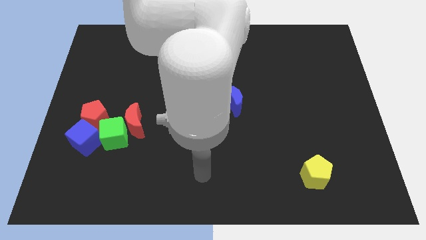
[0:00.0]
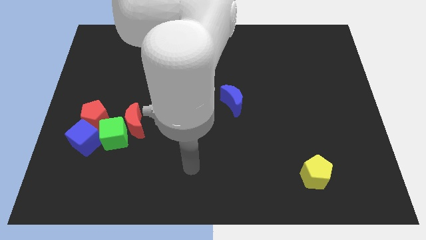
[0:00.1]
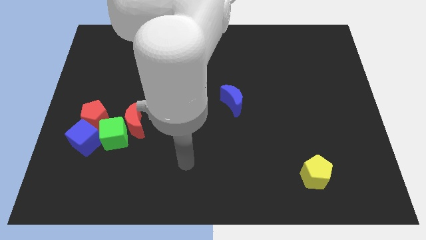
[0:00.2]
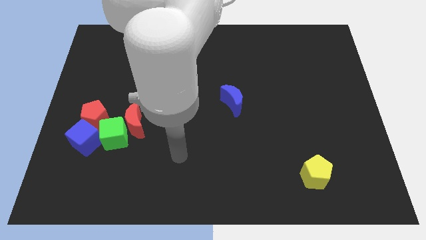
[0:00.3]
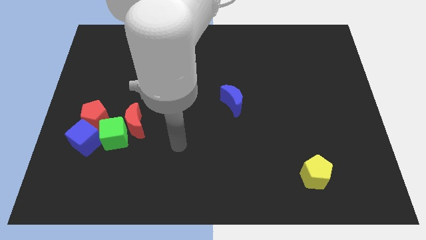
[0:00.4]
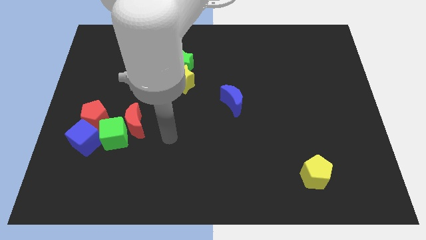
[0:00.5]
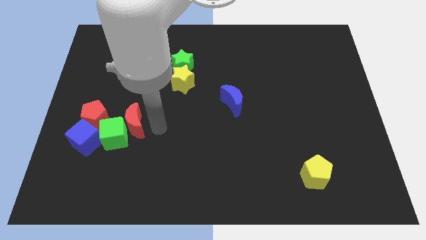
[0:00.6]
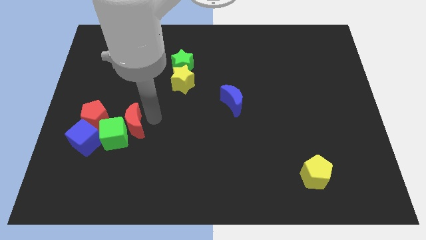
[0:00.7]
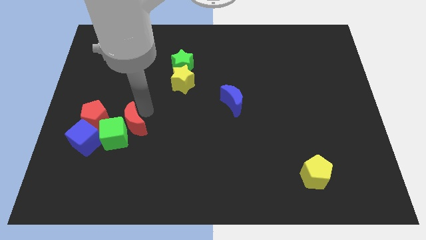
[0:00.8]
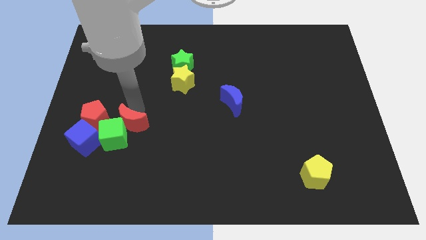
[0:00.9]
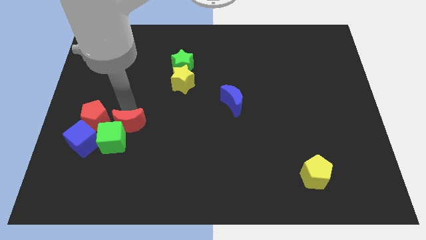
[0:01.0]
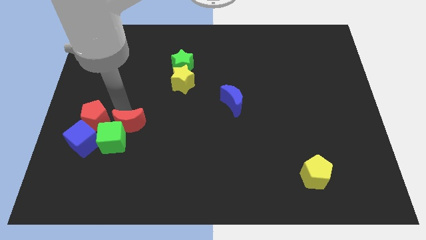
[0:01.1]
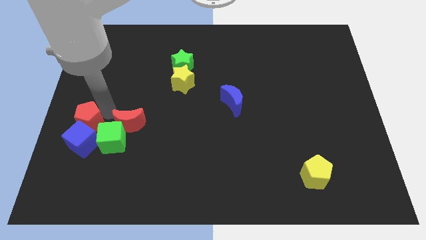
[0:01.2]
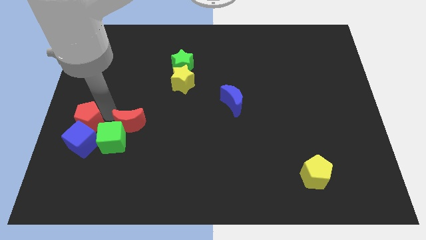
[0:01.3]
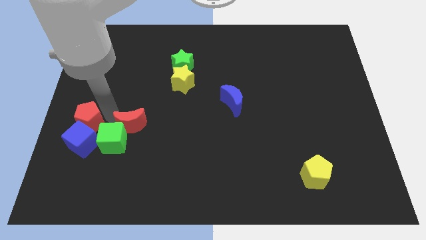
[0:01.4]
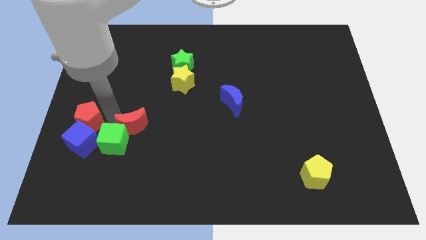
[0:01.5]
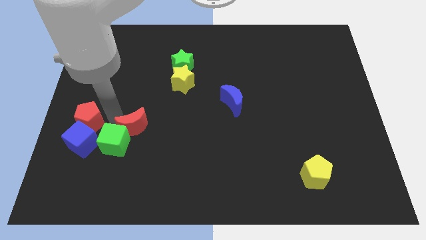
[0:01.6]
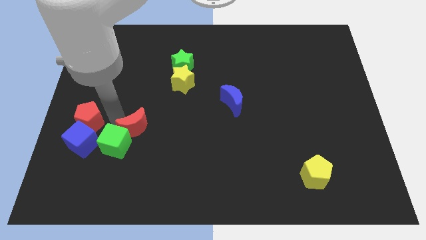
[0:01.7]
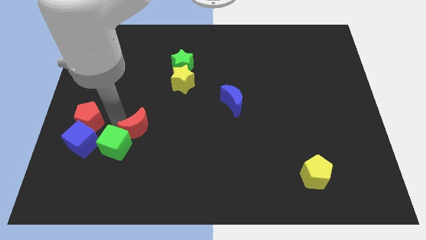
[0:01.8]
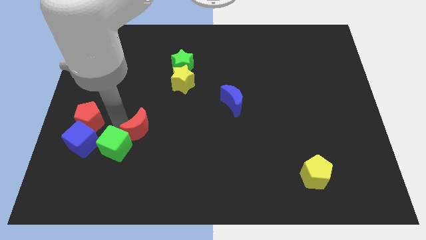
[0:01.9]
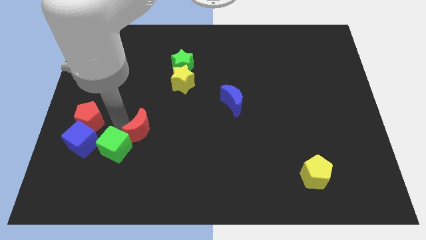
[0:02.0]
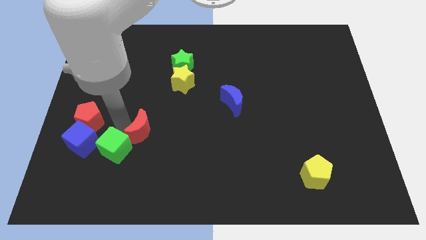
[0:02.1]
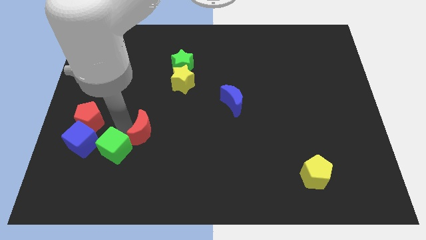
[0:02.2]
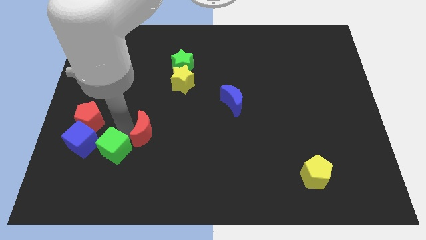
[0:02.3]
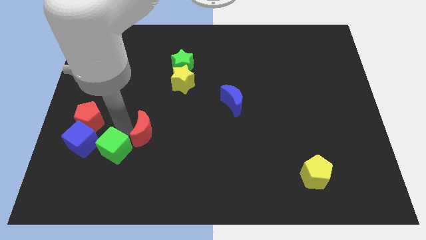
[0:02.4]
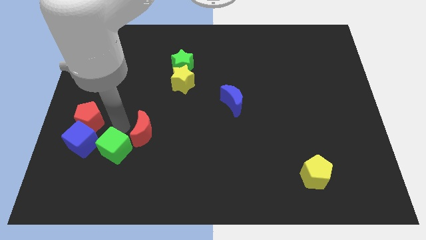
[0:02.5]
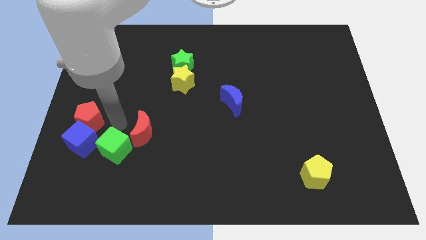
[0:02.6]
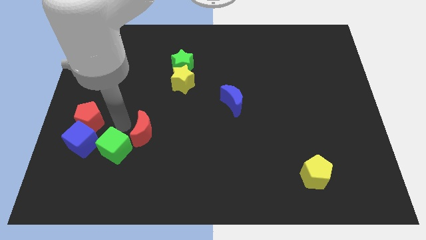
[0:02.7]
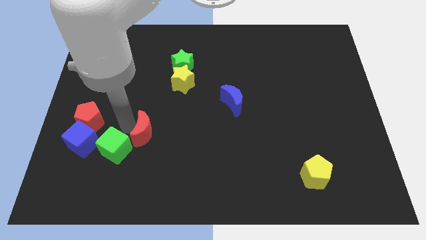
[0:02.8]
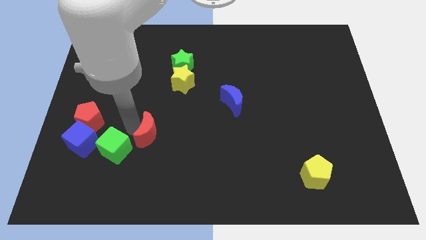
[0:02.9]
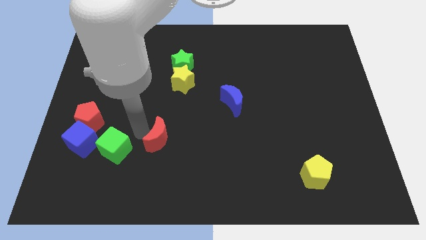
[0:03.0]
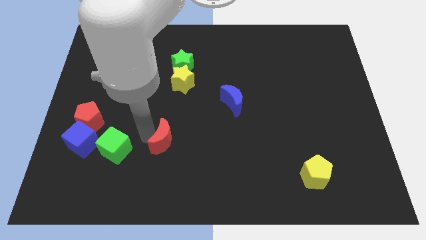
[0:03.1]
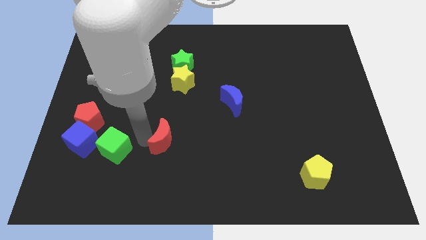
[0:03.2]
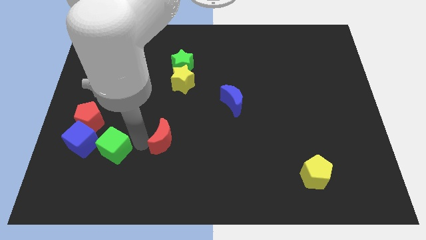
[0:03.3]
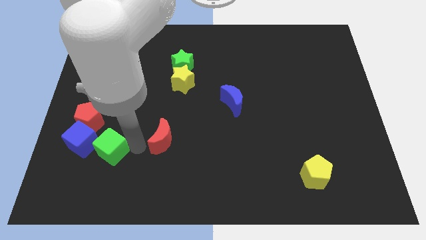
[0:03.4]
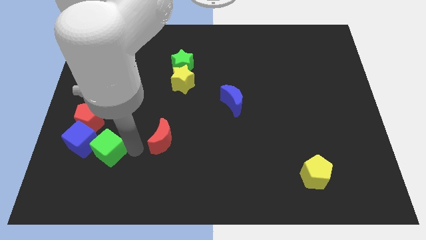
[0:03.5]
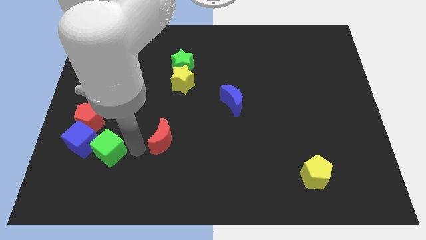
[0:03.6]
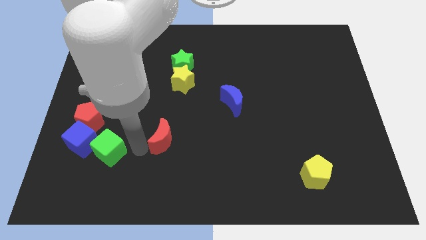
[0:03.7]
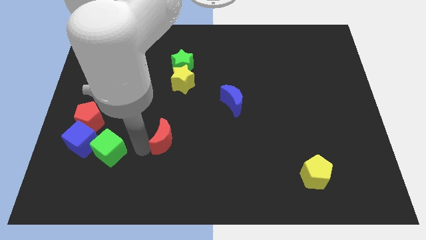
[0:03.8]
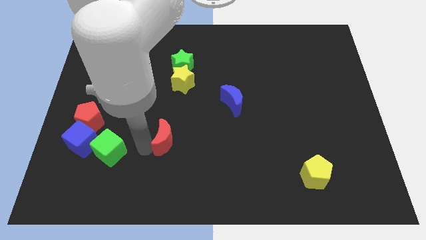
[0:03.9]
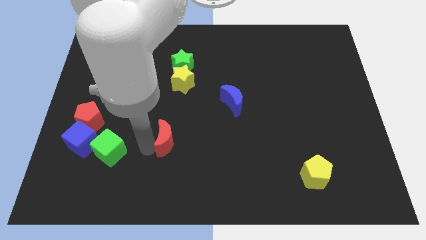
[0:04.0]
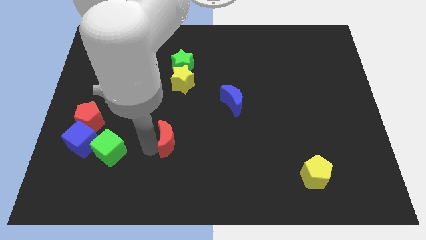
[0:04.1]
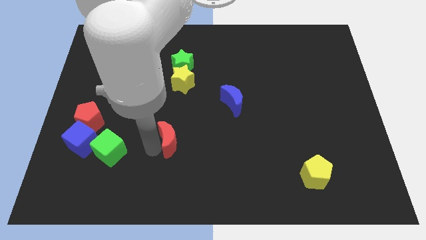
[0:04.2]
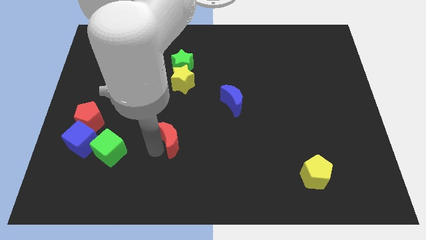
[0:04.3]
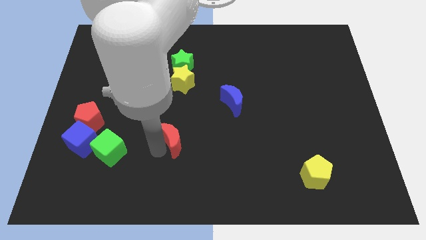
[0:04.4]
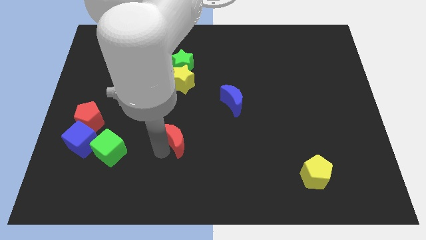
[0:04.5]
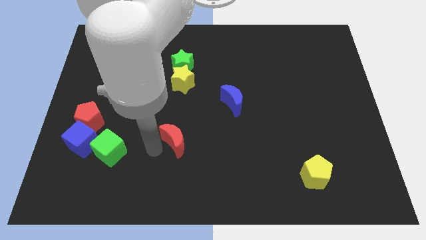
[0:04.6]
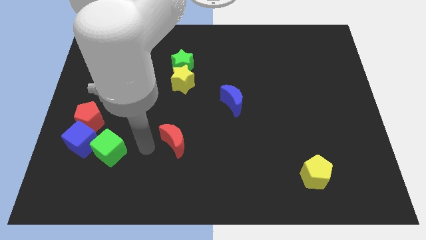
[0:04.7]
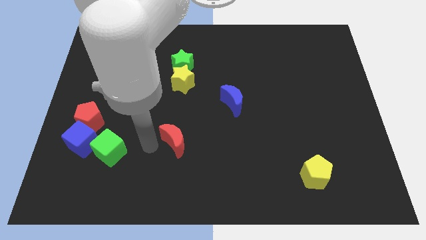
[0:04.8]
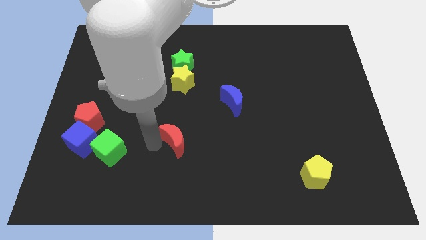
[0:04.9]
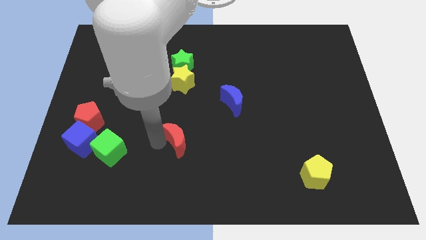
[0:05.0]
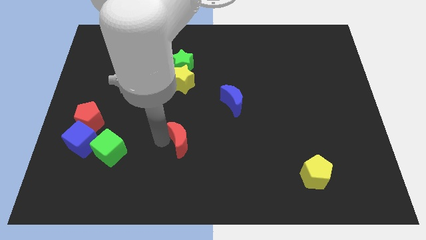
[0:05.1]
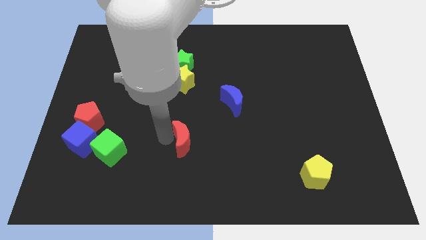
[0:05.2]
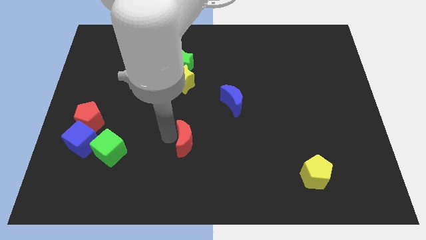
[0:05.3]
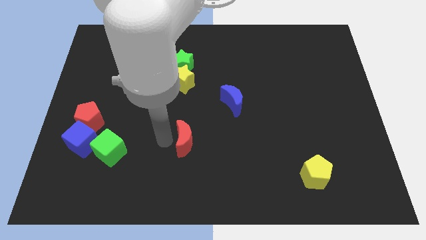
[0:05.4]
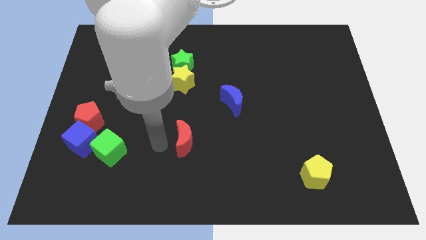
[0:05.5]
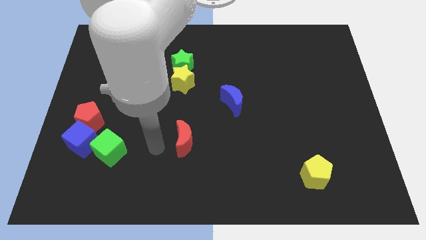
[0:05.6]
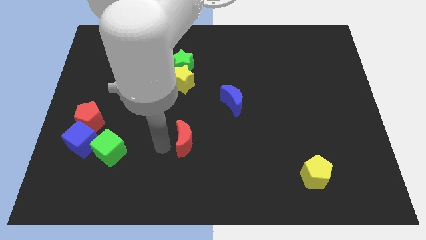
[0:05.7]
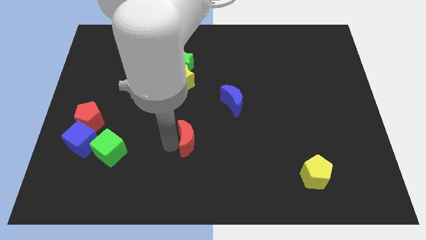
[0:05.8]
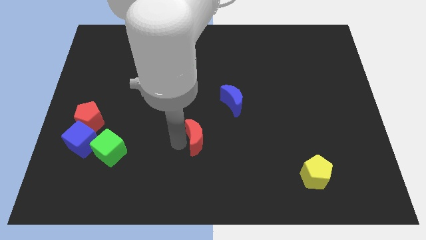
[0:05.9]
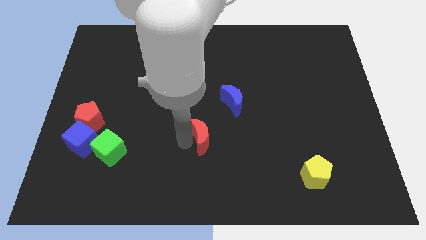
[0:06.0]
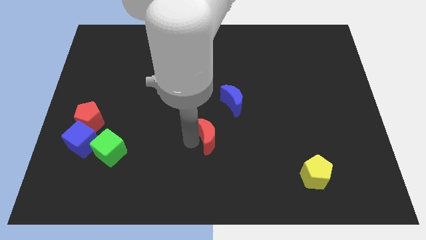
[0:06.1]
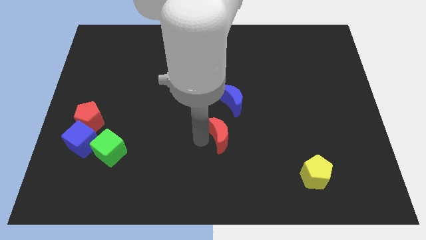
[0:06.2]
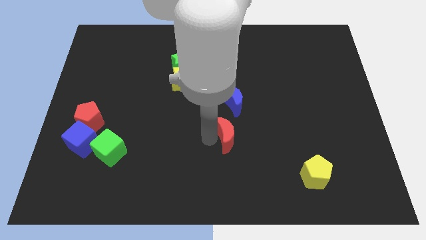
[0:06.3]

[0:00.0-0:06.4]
slide the red moon right

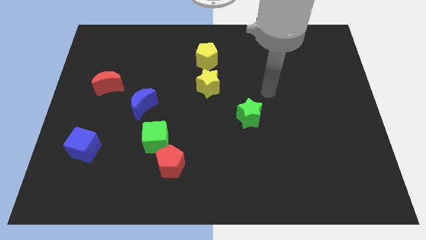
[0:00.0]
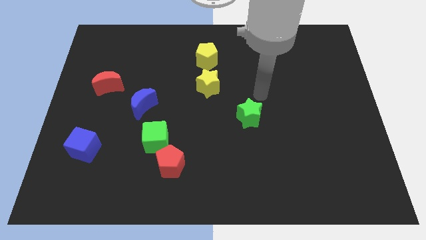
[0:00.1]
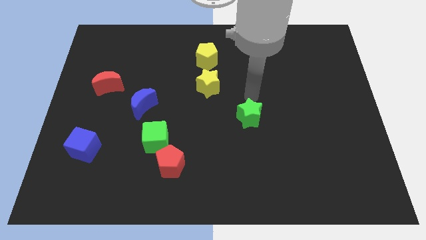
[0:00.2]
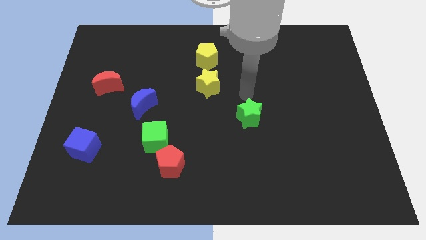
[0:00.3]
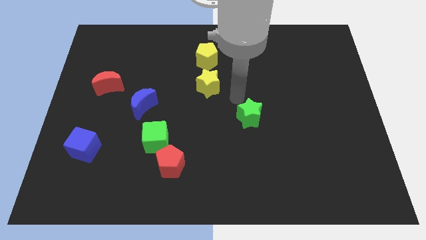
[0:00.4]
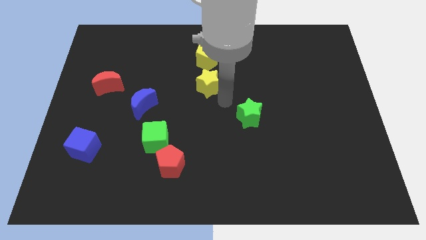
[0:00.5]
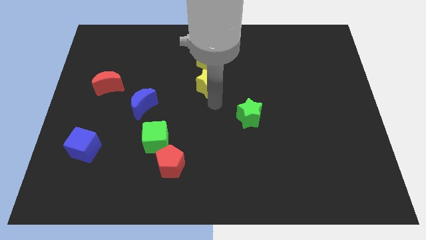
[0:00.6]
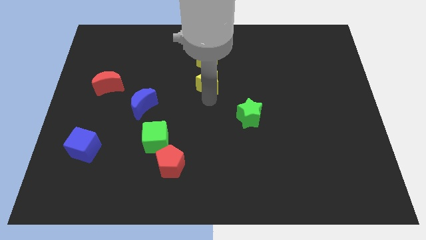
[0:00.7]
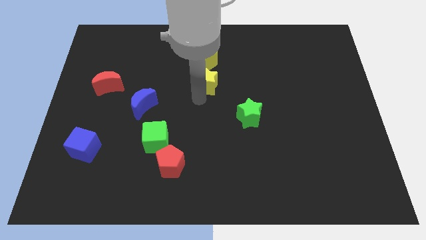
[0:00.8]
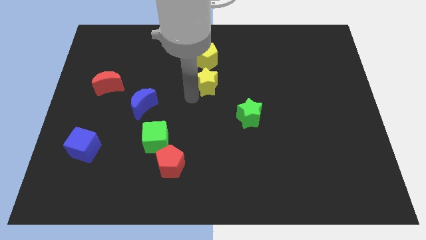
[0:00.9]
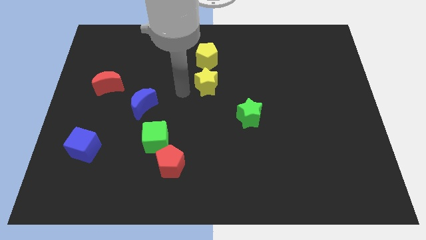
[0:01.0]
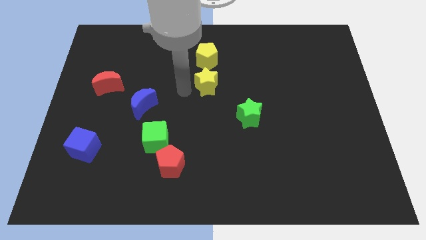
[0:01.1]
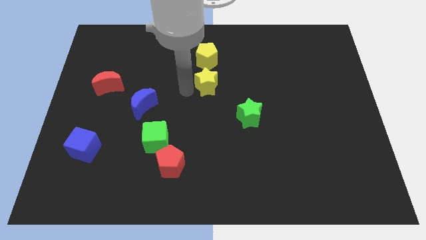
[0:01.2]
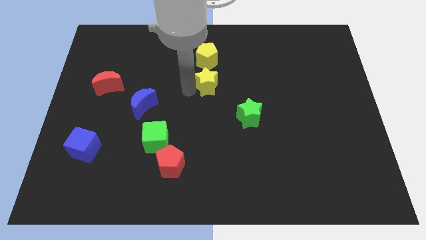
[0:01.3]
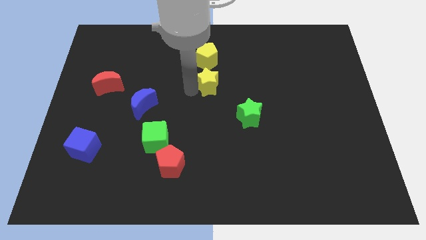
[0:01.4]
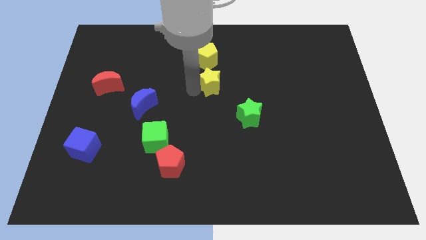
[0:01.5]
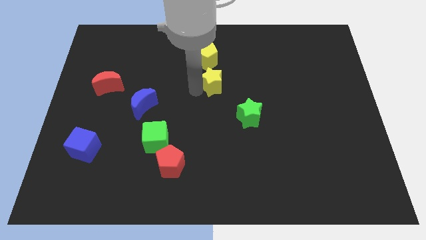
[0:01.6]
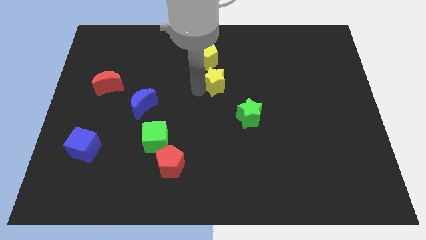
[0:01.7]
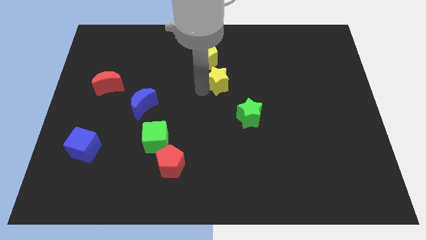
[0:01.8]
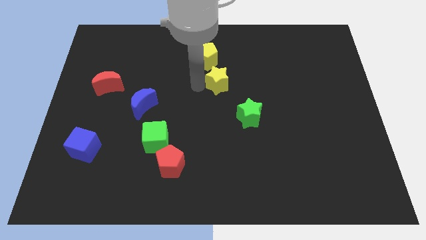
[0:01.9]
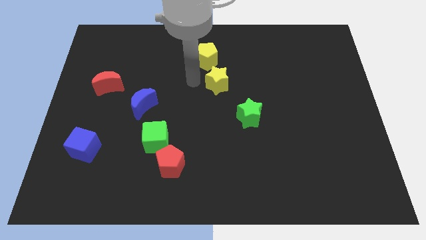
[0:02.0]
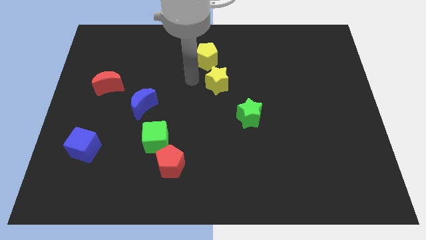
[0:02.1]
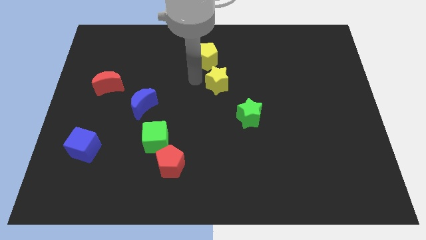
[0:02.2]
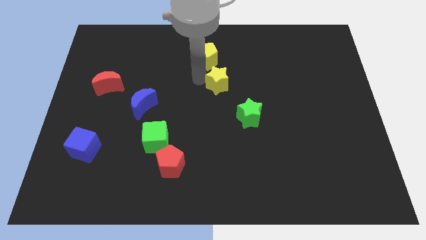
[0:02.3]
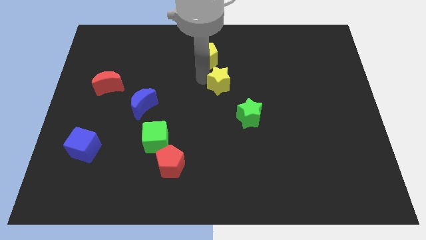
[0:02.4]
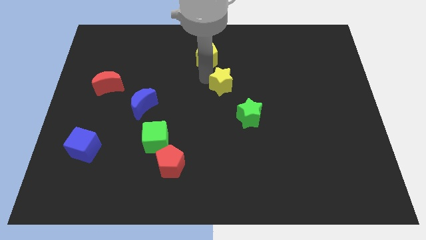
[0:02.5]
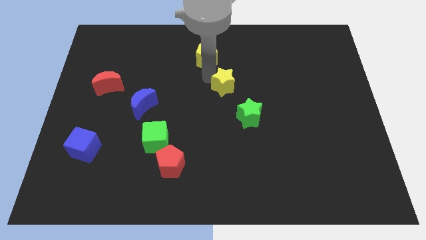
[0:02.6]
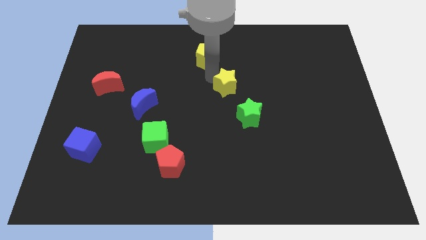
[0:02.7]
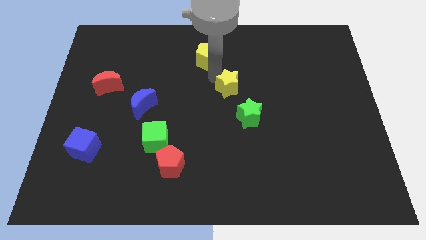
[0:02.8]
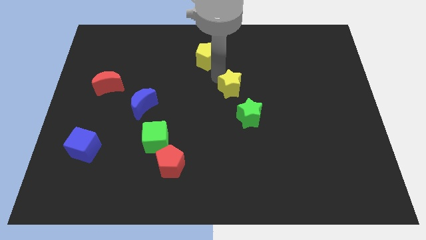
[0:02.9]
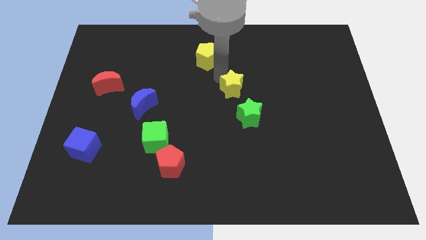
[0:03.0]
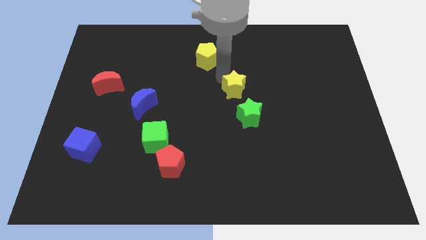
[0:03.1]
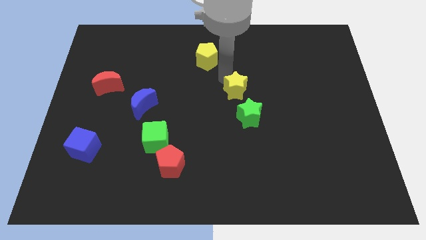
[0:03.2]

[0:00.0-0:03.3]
slightly push the yellow star to the right
